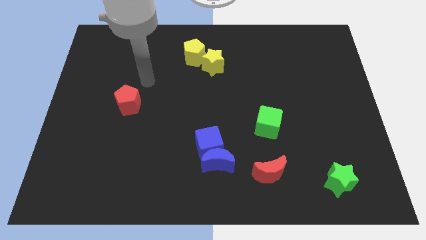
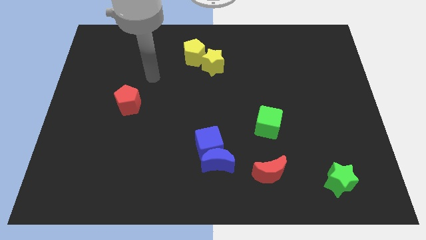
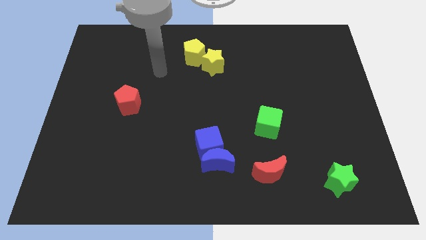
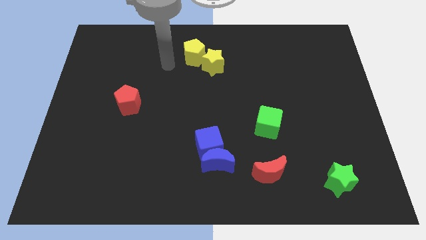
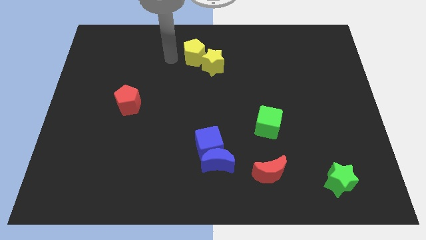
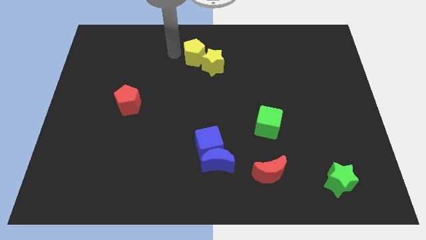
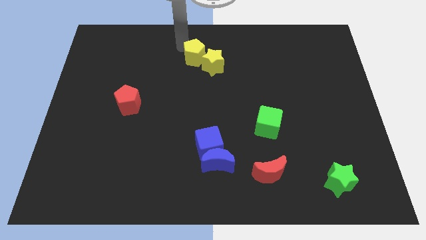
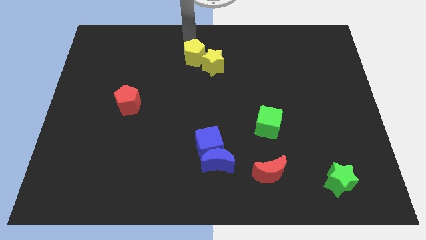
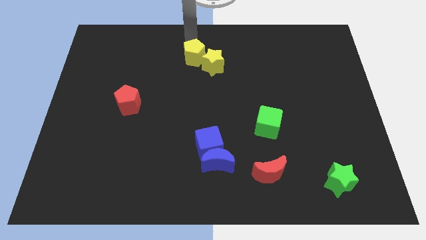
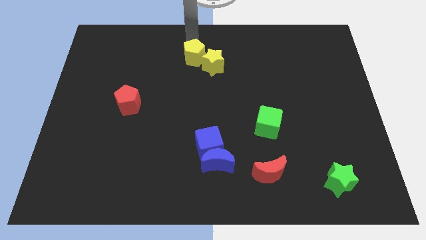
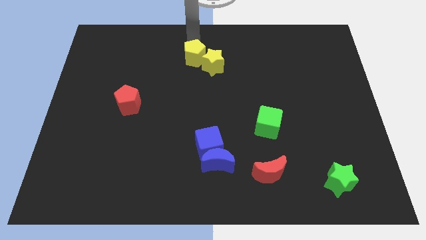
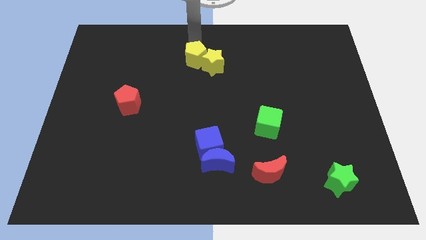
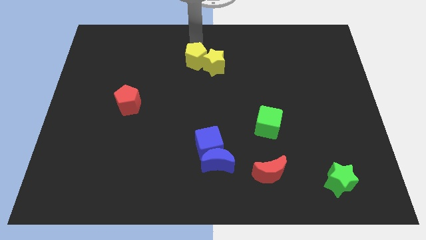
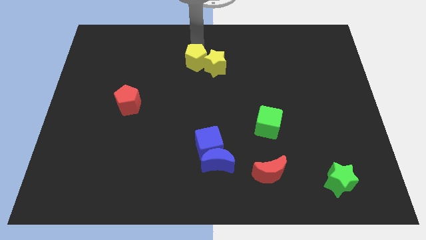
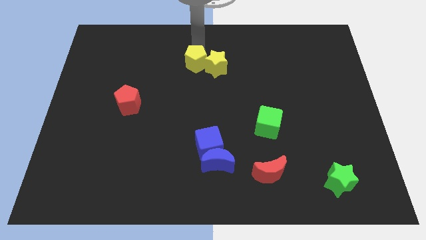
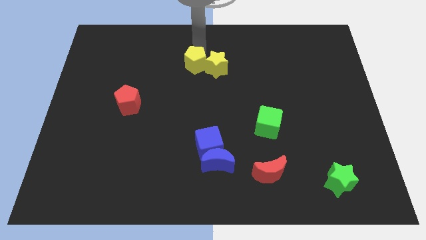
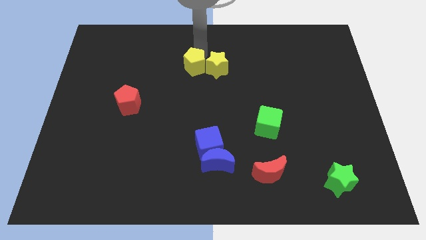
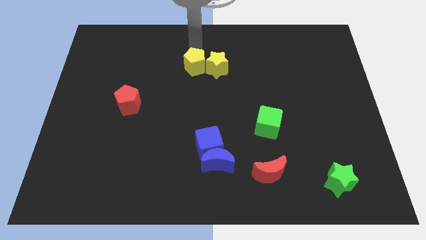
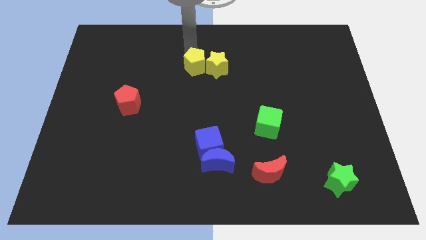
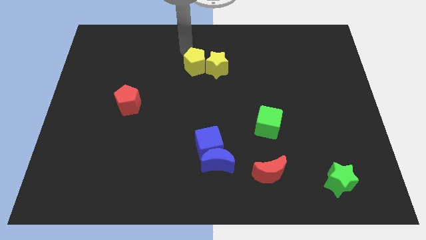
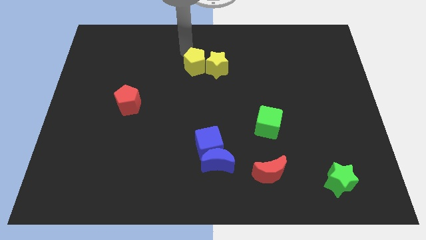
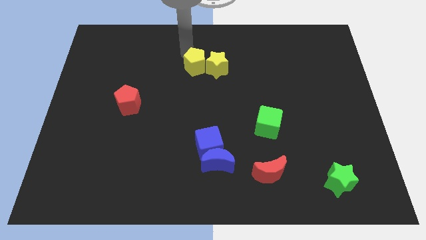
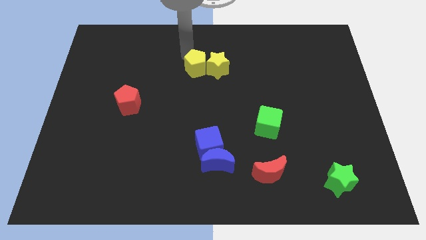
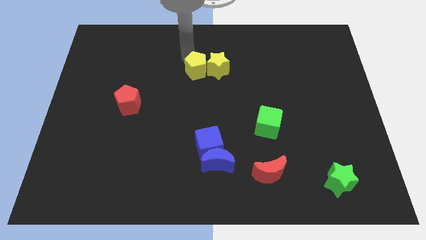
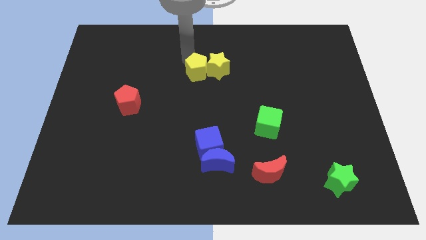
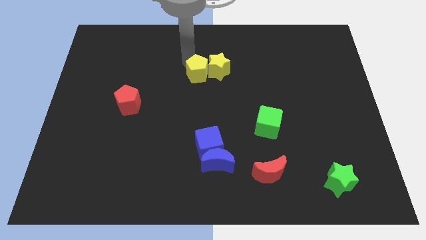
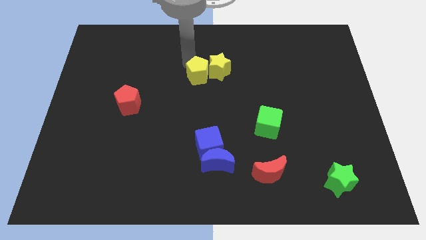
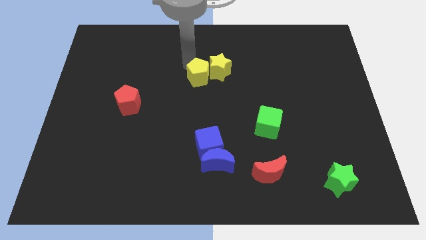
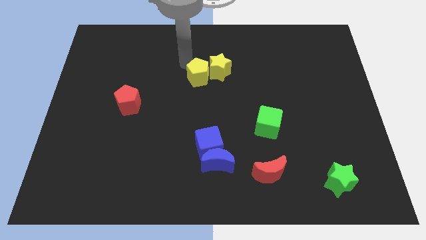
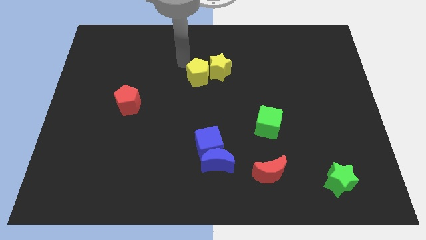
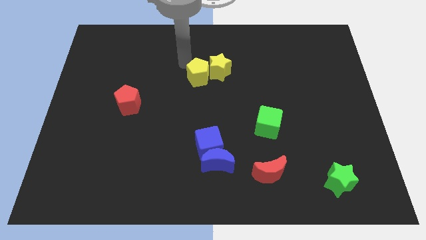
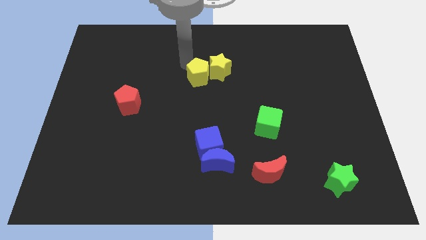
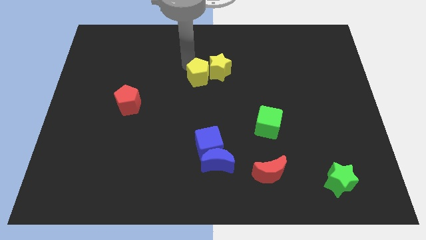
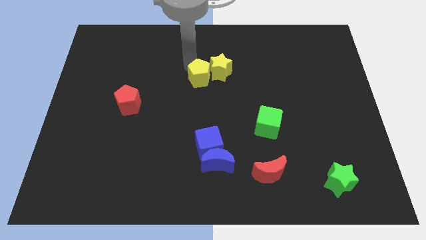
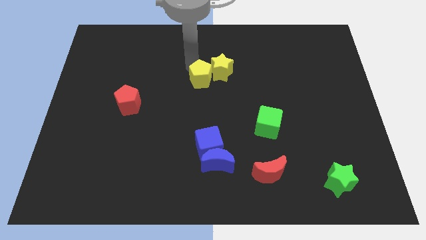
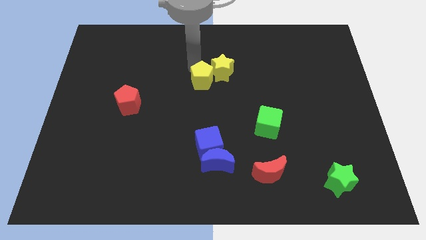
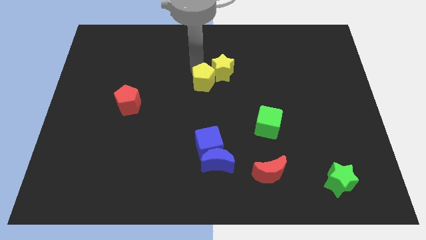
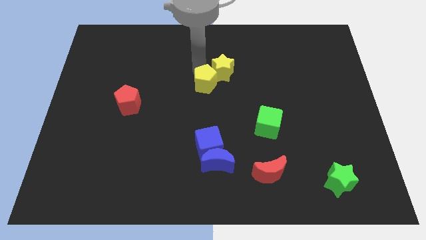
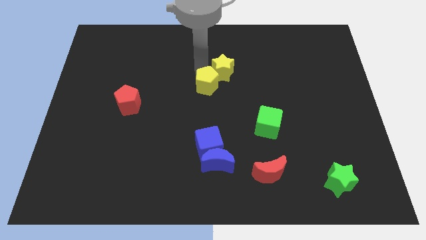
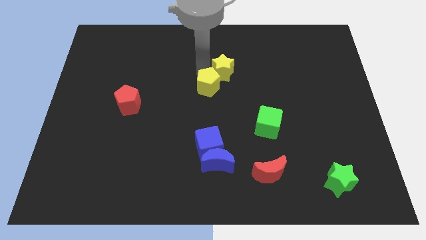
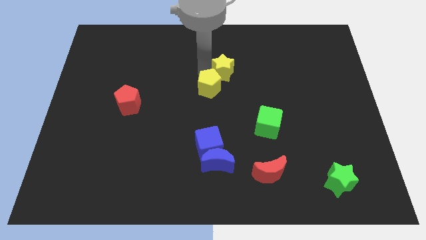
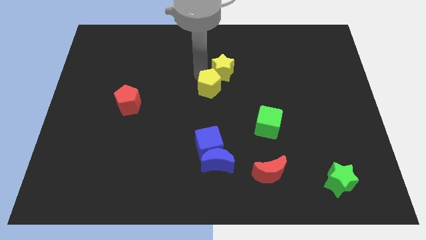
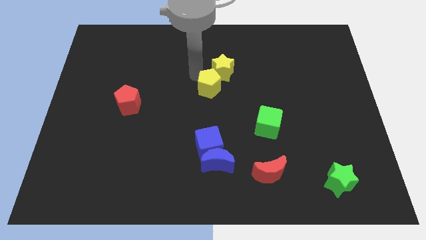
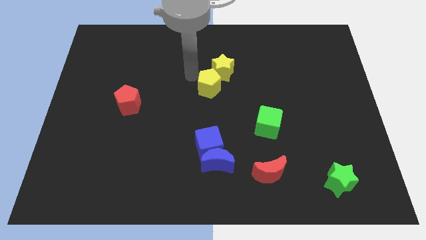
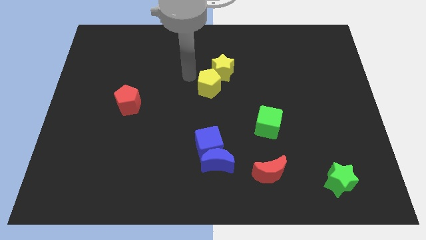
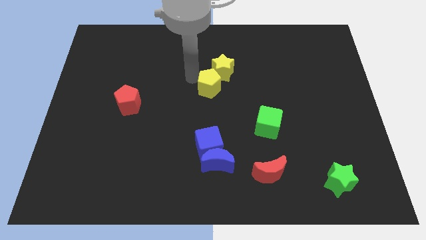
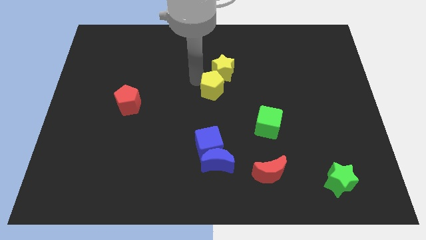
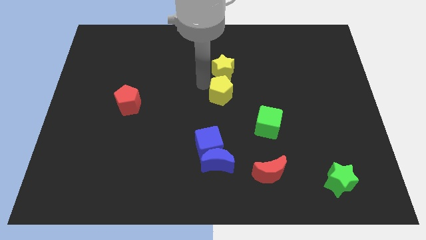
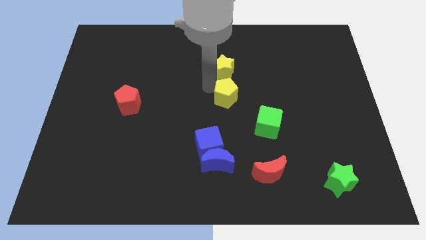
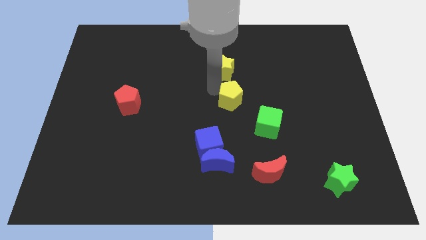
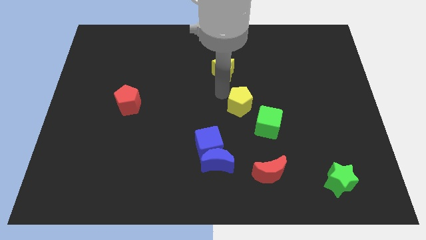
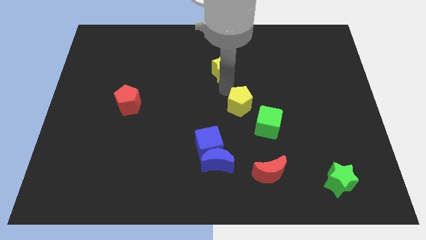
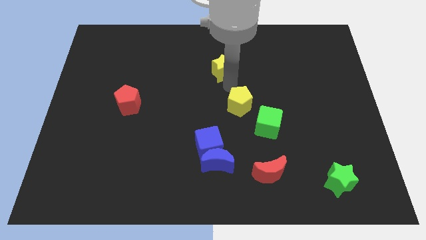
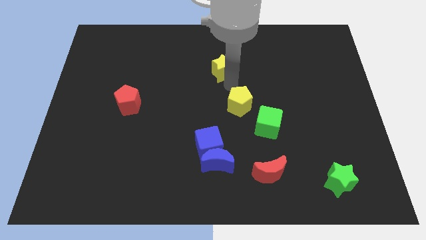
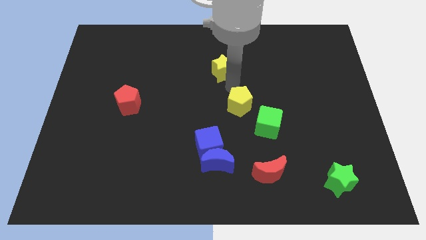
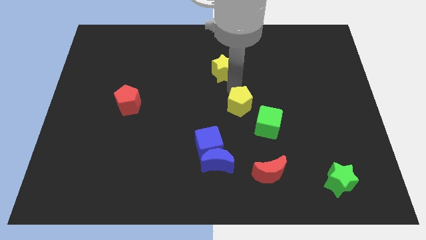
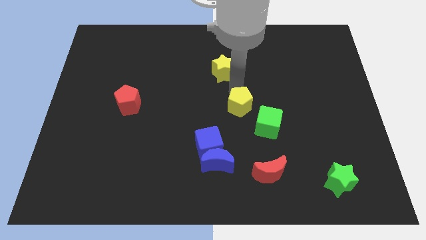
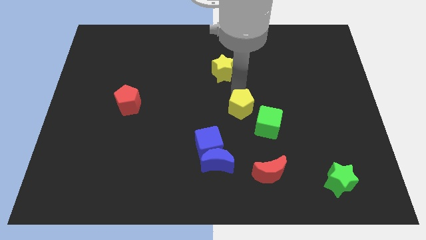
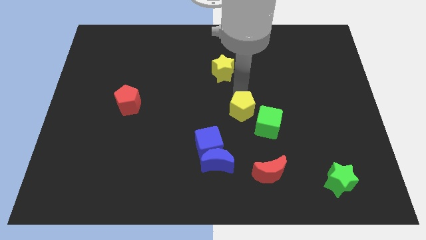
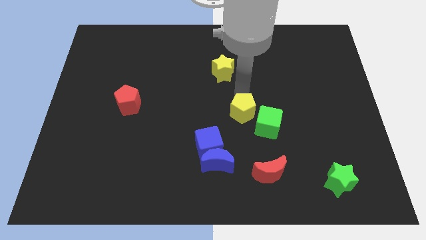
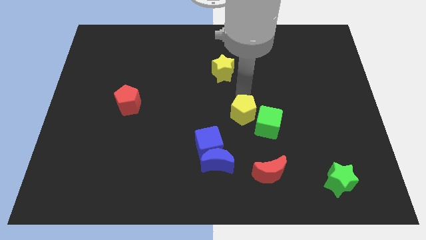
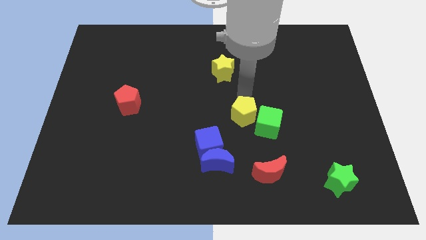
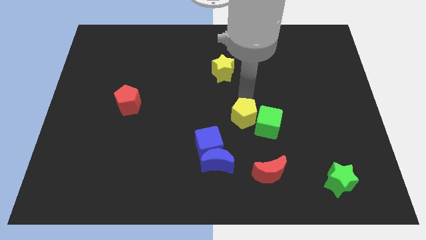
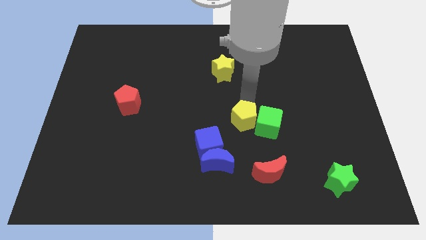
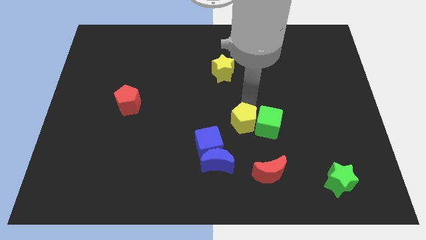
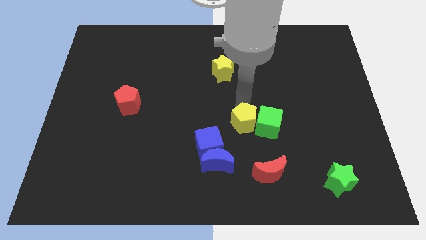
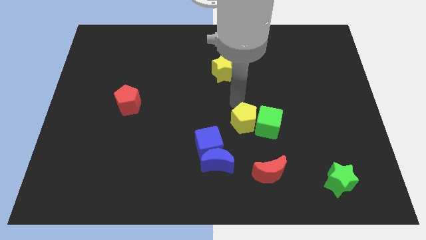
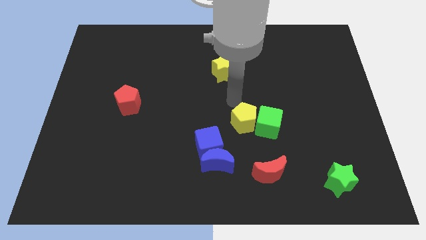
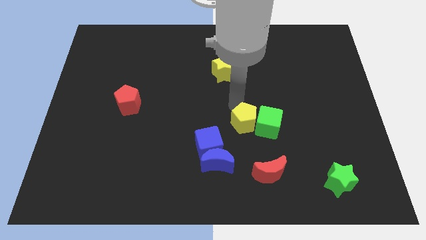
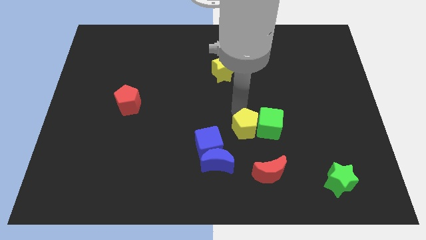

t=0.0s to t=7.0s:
put the yellow pentagon to the right side of the blue cube
